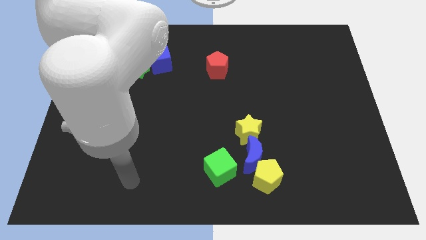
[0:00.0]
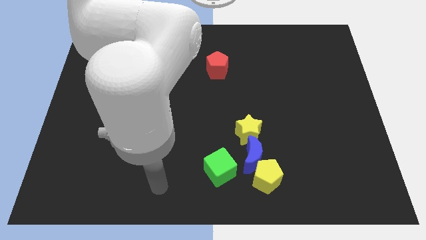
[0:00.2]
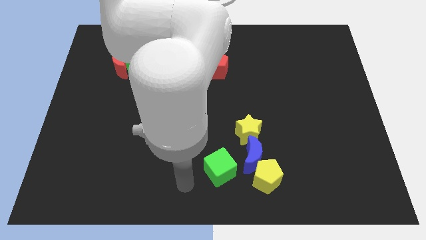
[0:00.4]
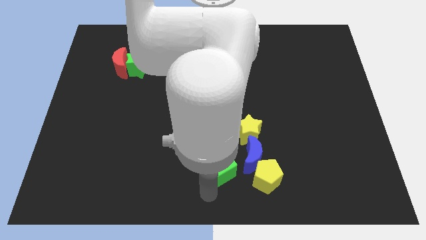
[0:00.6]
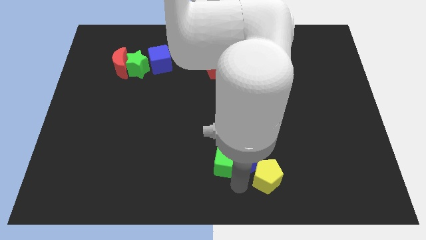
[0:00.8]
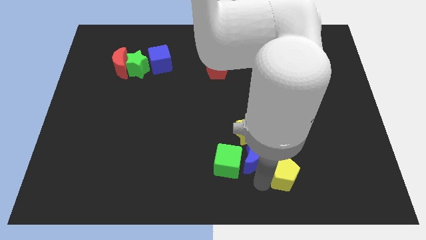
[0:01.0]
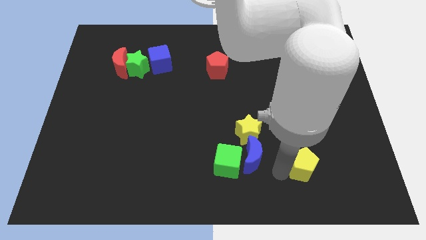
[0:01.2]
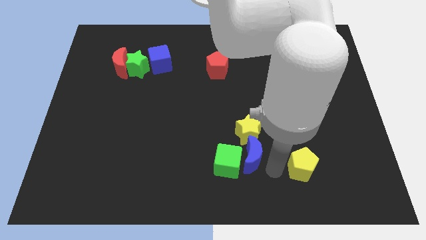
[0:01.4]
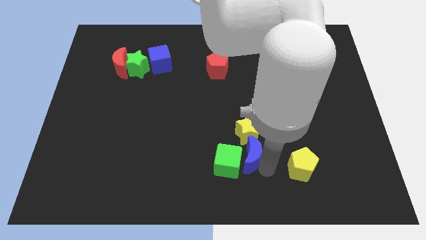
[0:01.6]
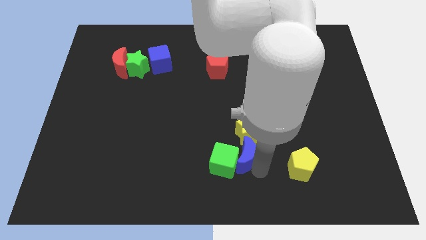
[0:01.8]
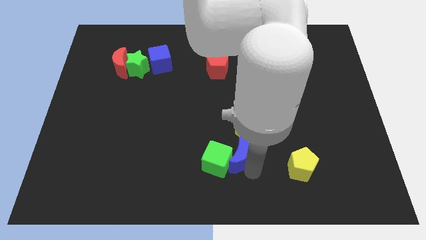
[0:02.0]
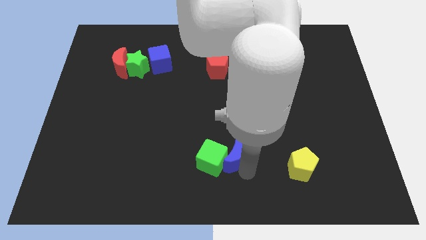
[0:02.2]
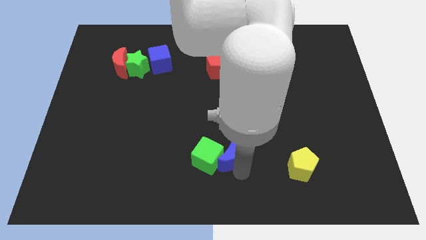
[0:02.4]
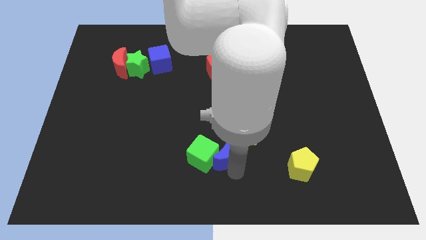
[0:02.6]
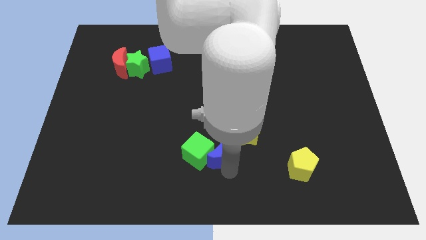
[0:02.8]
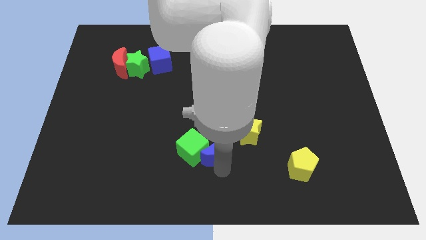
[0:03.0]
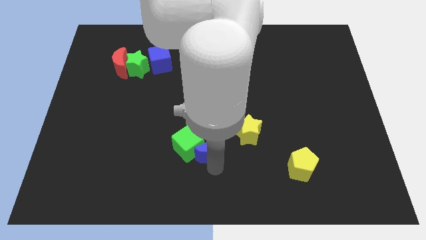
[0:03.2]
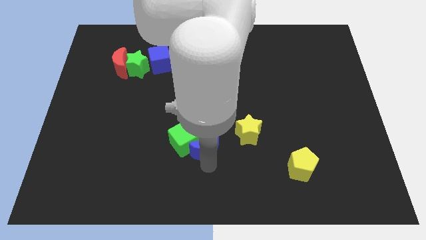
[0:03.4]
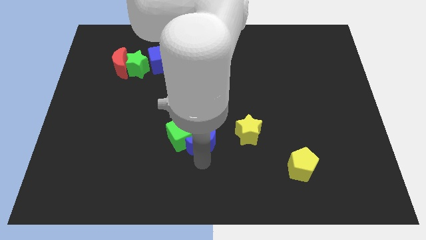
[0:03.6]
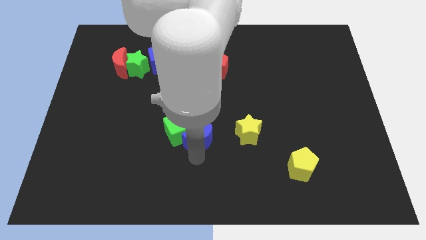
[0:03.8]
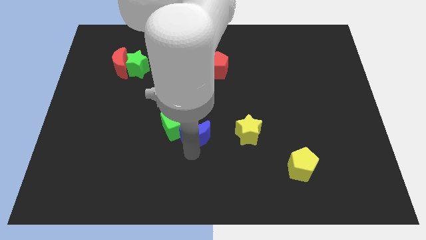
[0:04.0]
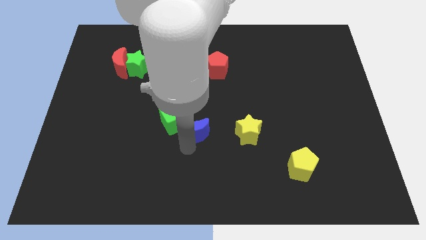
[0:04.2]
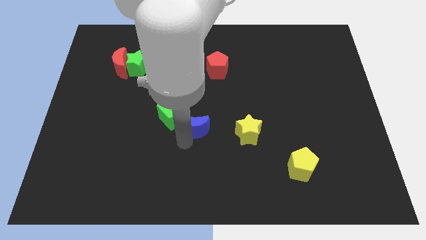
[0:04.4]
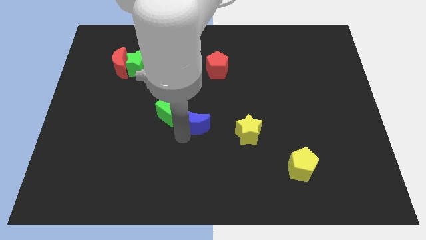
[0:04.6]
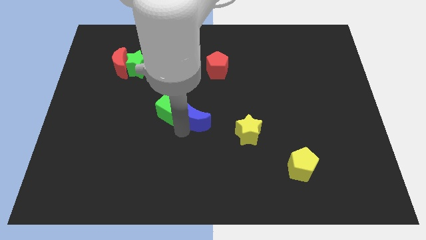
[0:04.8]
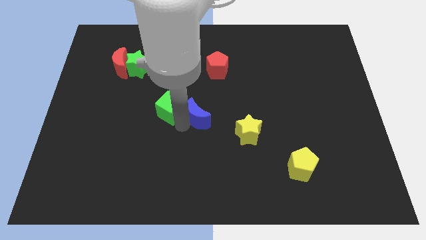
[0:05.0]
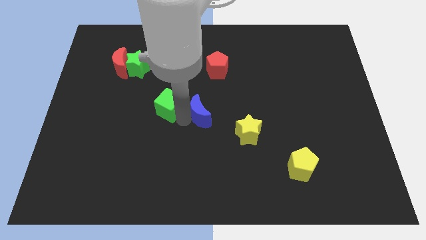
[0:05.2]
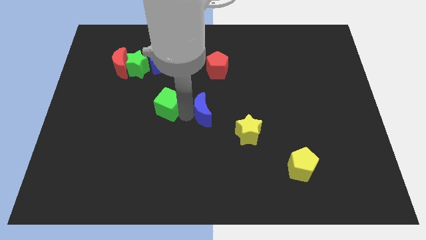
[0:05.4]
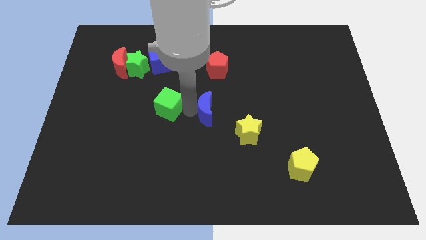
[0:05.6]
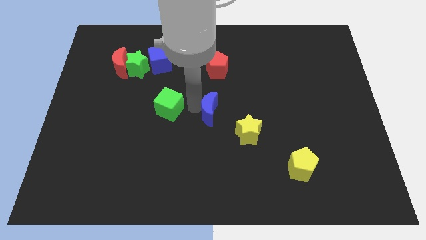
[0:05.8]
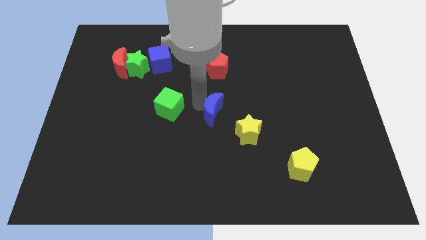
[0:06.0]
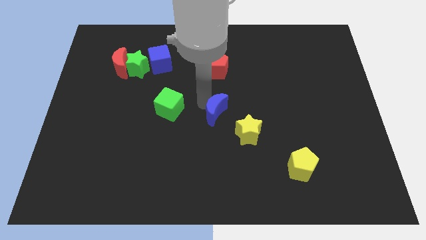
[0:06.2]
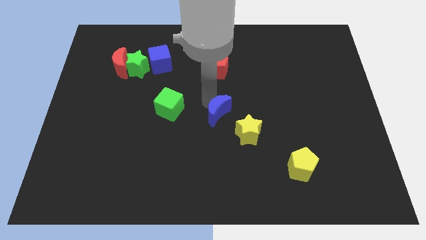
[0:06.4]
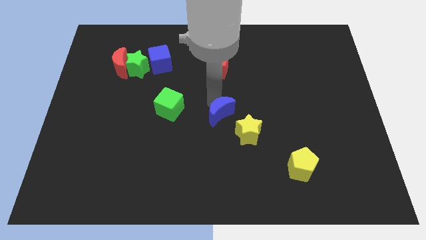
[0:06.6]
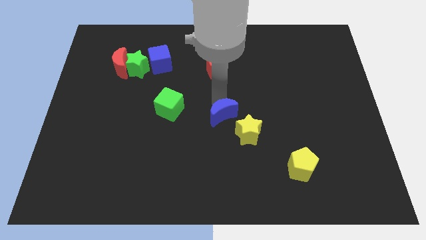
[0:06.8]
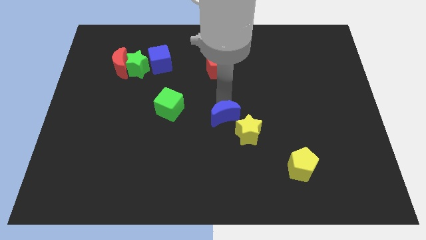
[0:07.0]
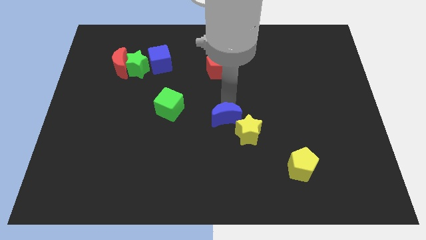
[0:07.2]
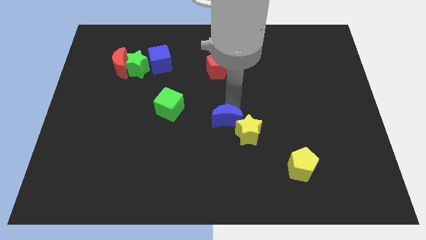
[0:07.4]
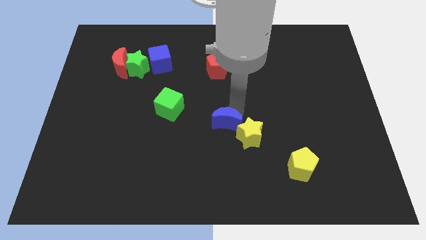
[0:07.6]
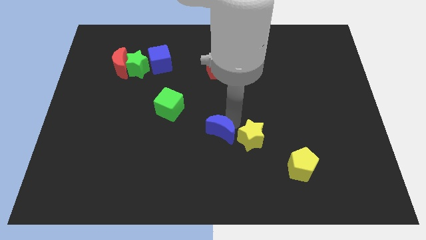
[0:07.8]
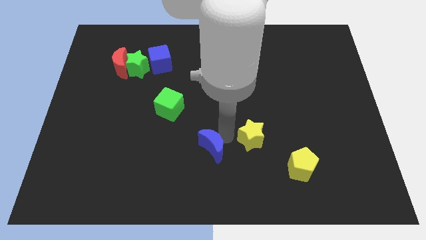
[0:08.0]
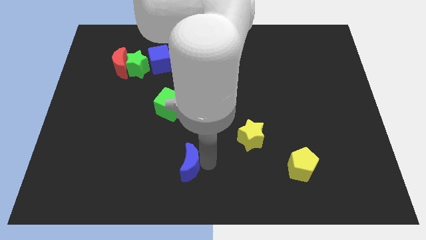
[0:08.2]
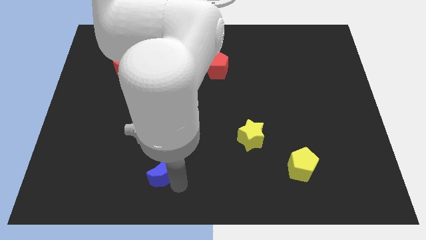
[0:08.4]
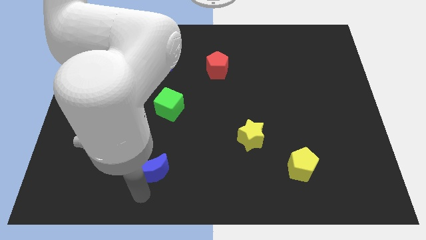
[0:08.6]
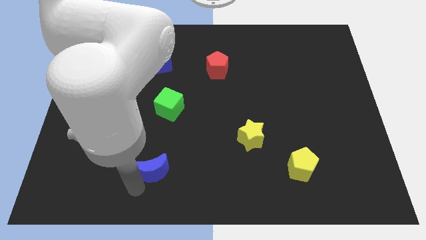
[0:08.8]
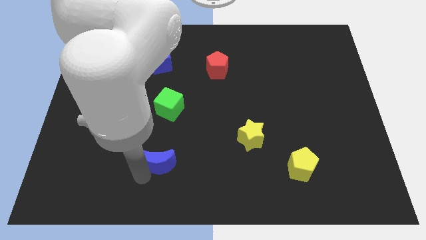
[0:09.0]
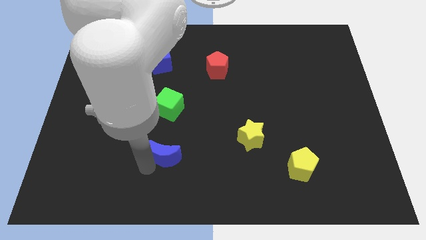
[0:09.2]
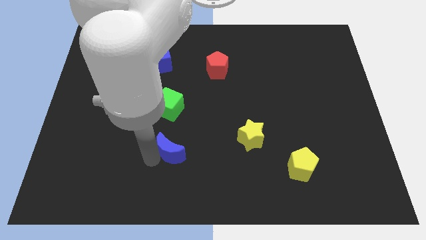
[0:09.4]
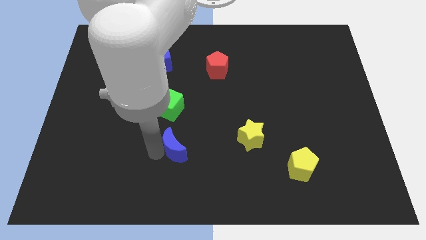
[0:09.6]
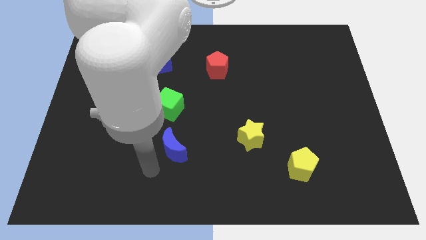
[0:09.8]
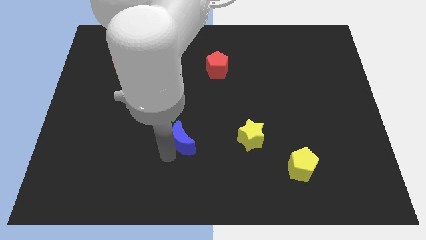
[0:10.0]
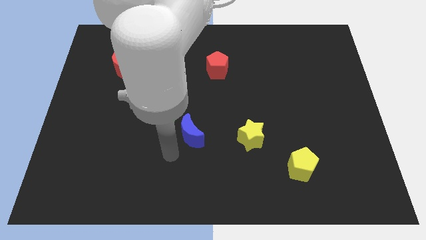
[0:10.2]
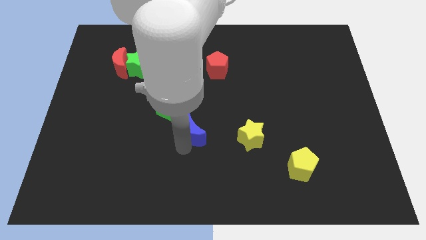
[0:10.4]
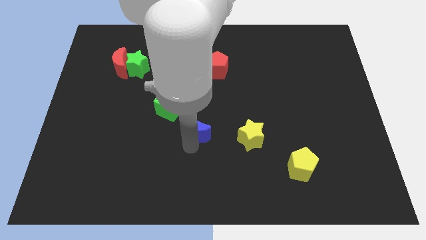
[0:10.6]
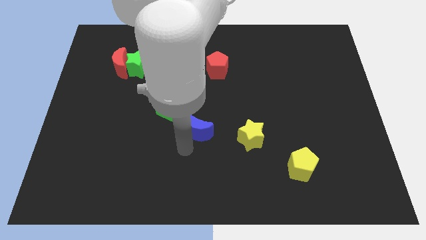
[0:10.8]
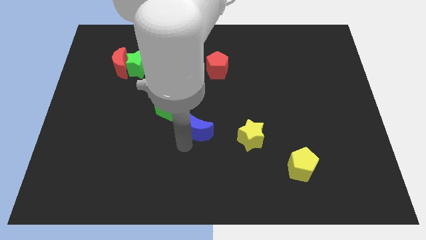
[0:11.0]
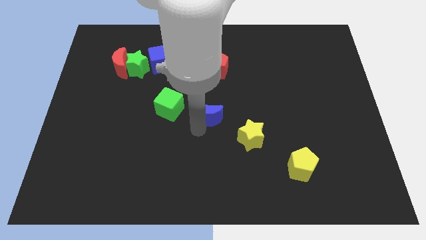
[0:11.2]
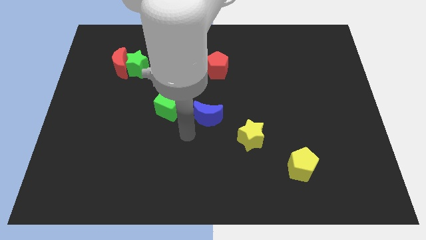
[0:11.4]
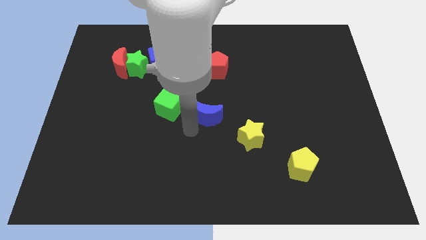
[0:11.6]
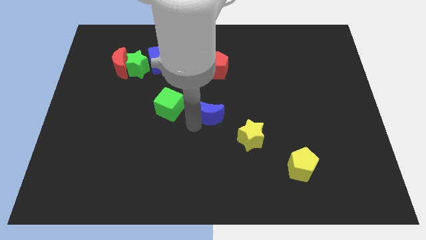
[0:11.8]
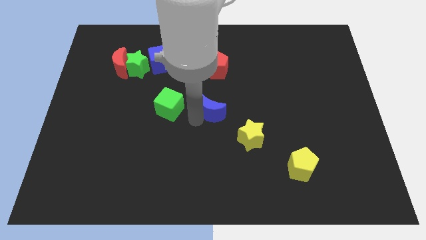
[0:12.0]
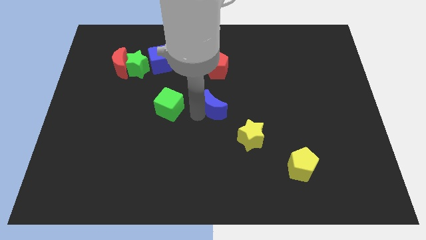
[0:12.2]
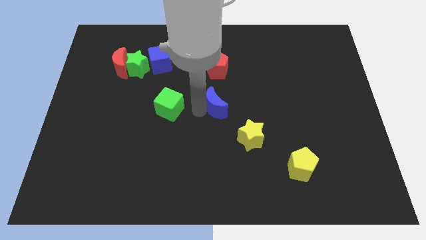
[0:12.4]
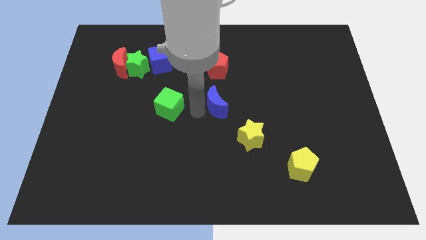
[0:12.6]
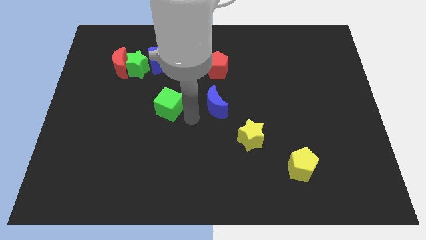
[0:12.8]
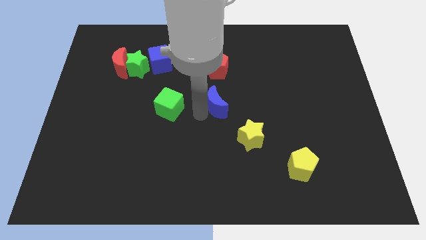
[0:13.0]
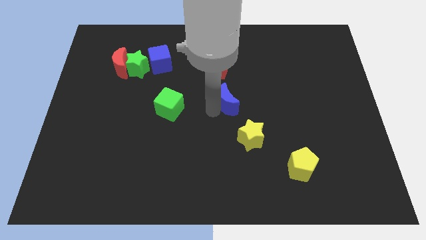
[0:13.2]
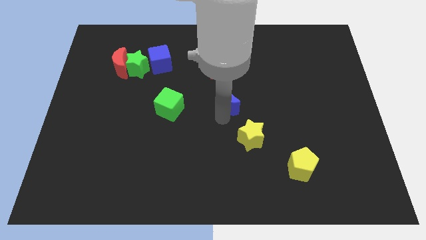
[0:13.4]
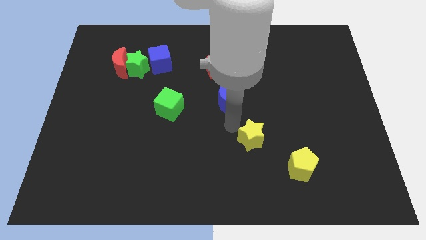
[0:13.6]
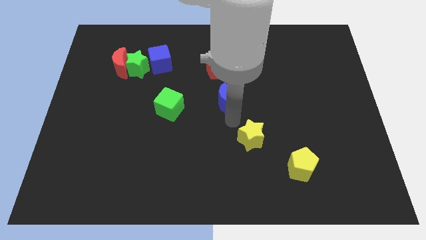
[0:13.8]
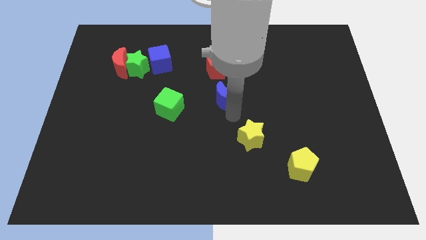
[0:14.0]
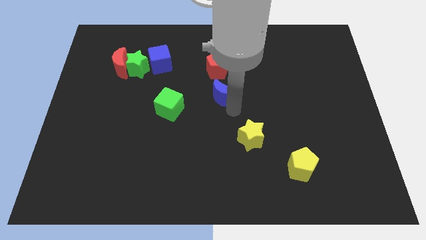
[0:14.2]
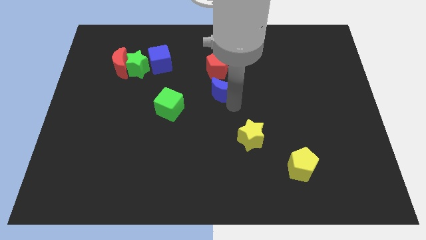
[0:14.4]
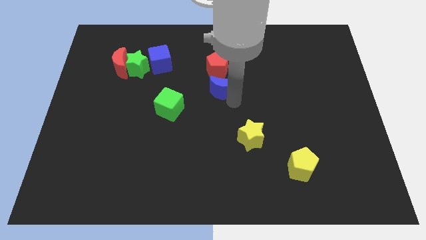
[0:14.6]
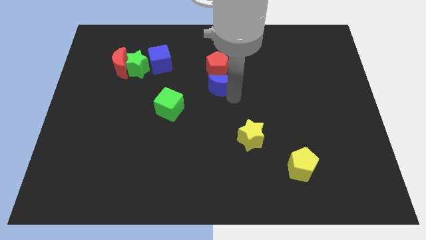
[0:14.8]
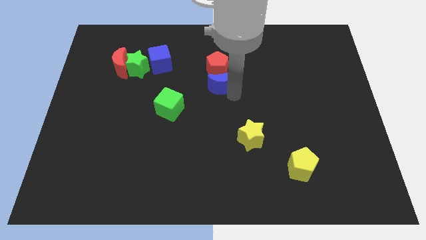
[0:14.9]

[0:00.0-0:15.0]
push the blue moon to the red pentagon
